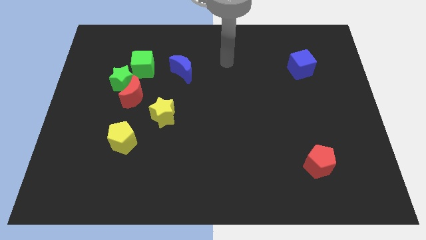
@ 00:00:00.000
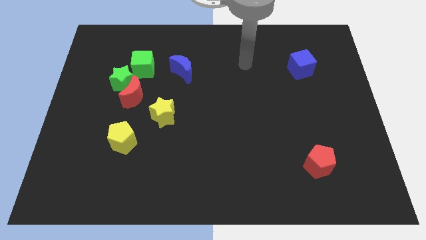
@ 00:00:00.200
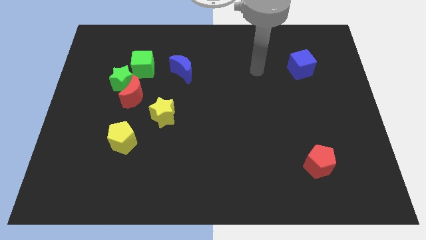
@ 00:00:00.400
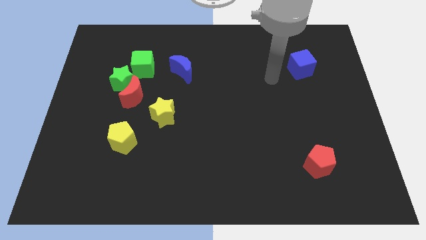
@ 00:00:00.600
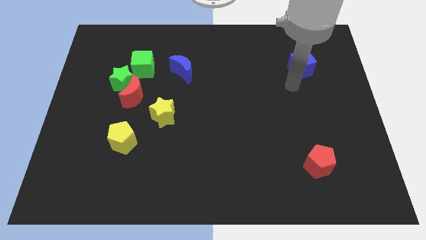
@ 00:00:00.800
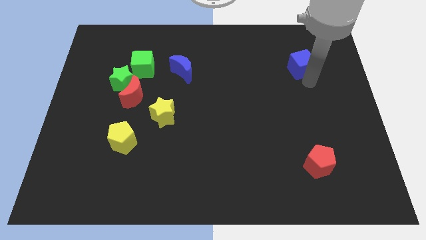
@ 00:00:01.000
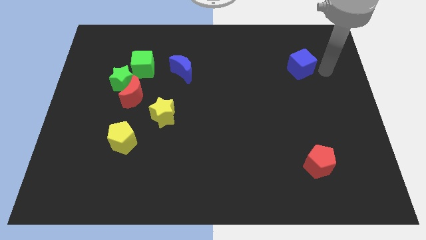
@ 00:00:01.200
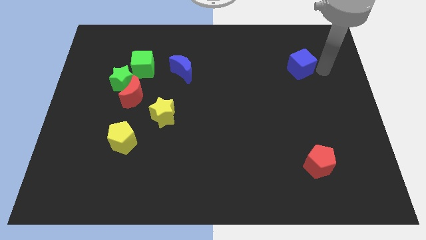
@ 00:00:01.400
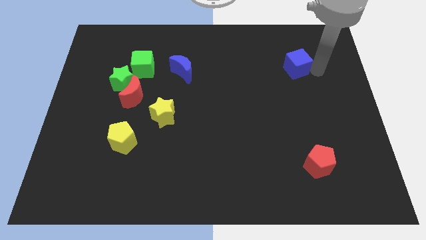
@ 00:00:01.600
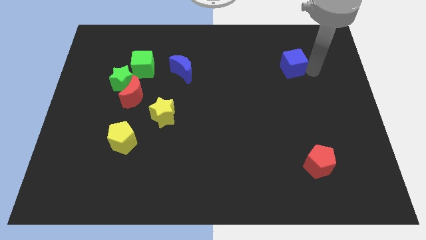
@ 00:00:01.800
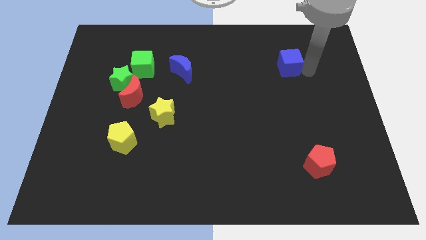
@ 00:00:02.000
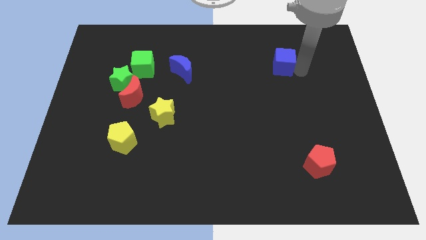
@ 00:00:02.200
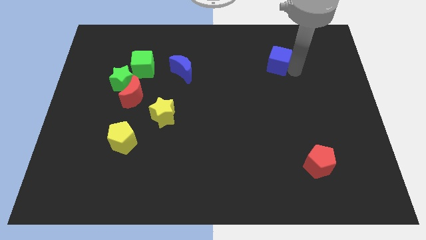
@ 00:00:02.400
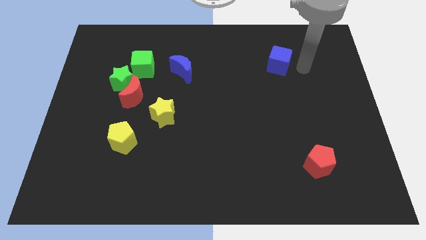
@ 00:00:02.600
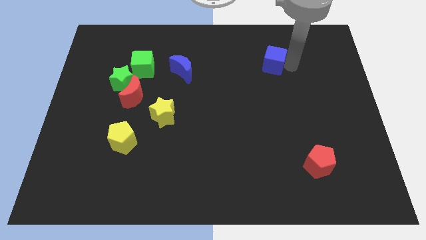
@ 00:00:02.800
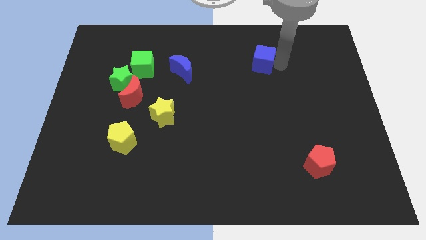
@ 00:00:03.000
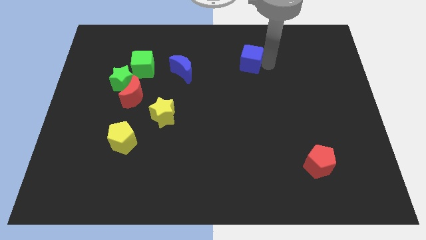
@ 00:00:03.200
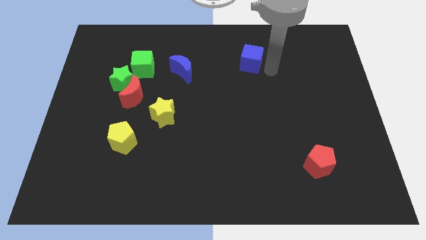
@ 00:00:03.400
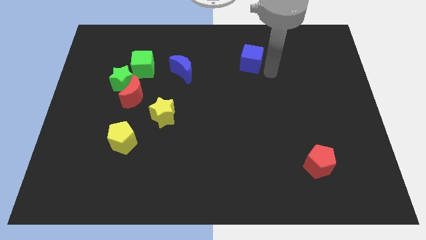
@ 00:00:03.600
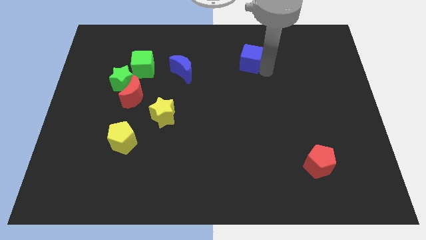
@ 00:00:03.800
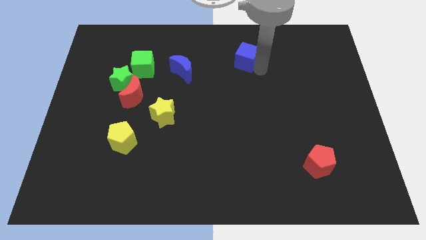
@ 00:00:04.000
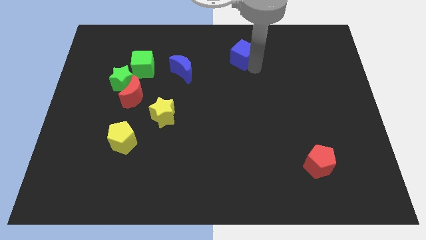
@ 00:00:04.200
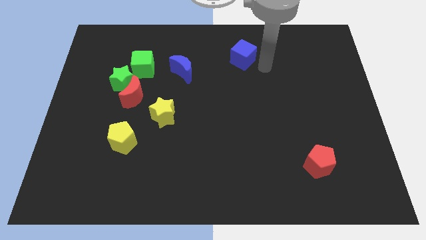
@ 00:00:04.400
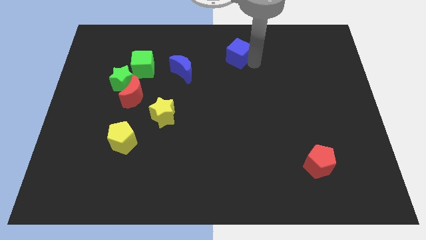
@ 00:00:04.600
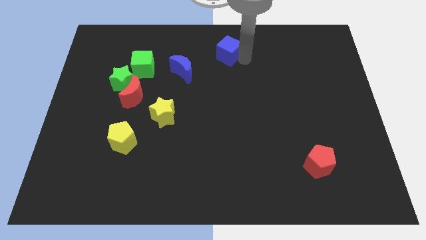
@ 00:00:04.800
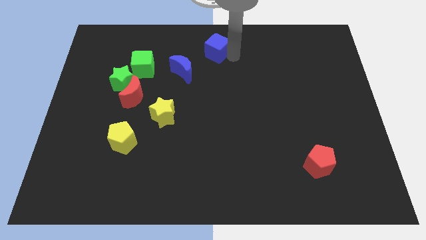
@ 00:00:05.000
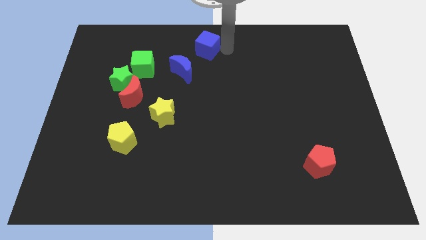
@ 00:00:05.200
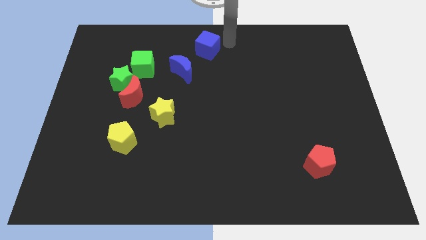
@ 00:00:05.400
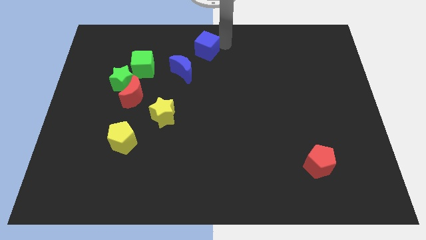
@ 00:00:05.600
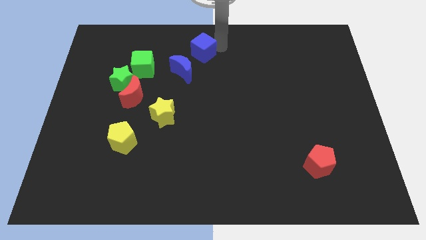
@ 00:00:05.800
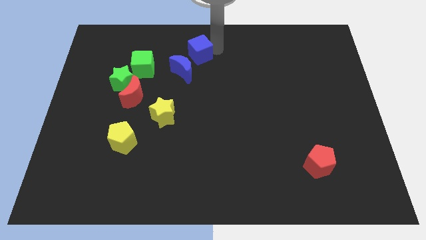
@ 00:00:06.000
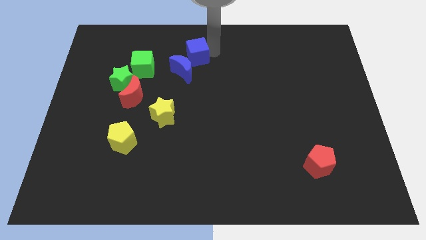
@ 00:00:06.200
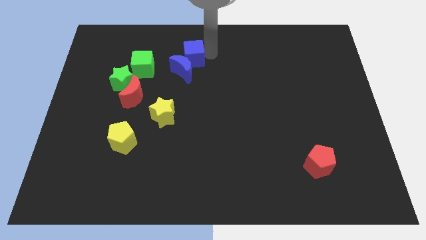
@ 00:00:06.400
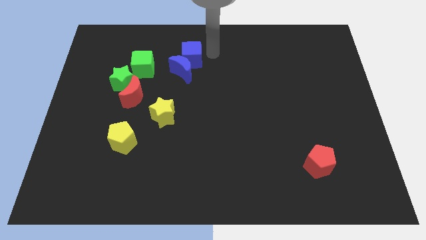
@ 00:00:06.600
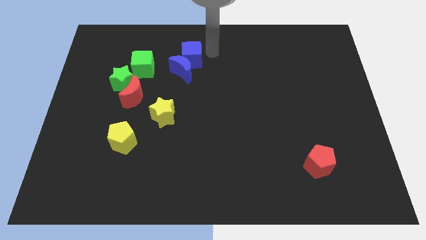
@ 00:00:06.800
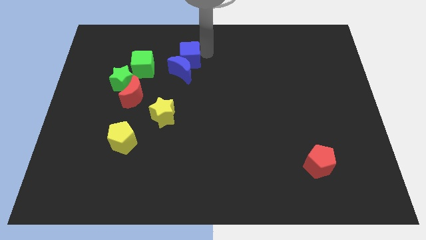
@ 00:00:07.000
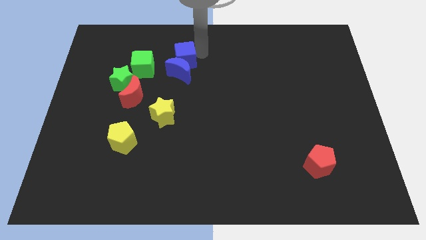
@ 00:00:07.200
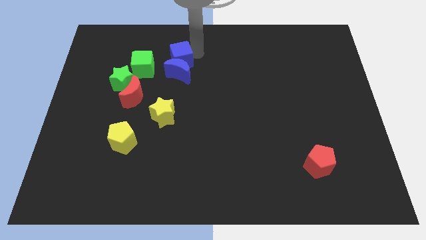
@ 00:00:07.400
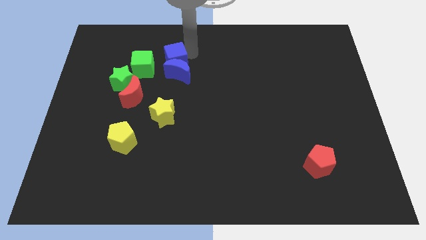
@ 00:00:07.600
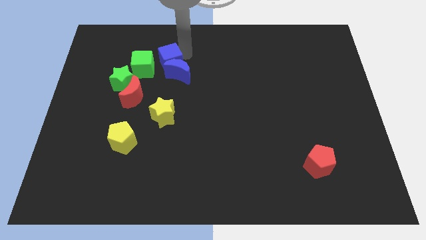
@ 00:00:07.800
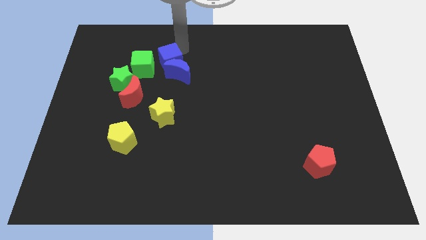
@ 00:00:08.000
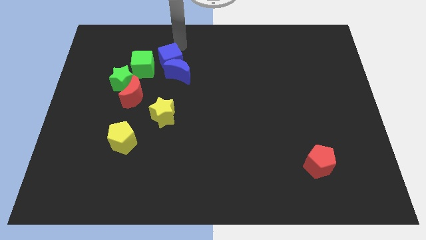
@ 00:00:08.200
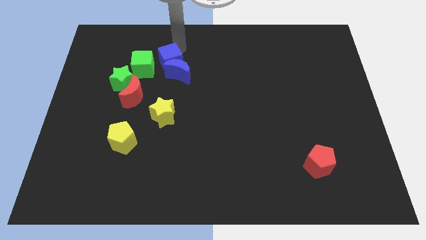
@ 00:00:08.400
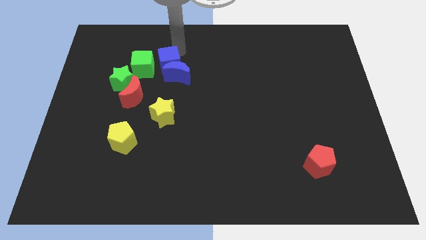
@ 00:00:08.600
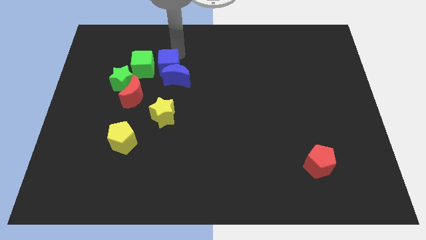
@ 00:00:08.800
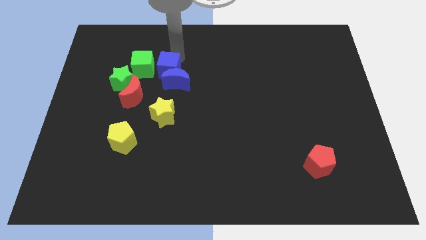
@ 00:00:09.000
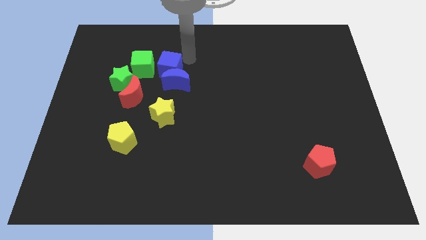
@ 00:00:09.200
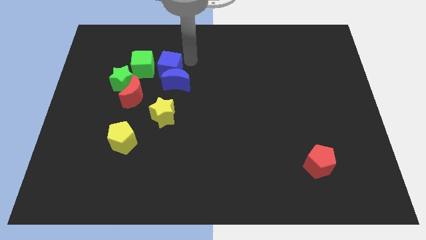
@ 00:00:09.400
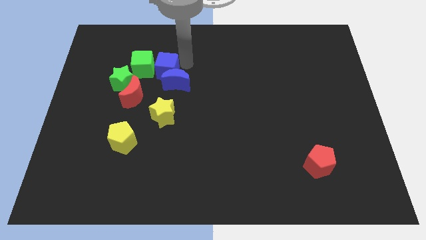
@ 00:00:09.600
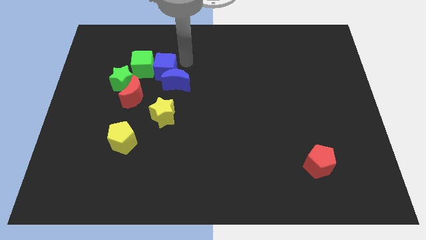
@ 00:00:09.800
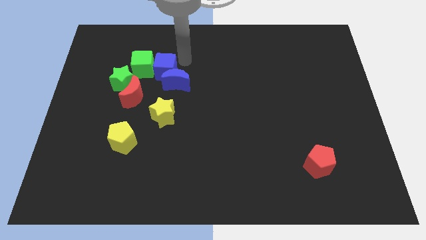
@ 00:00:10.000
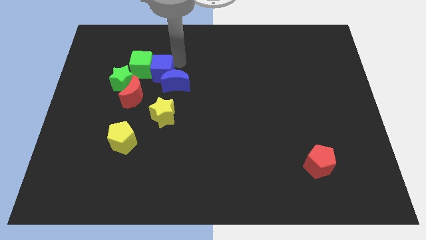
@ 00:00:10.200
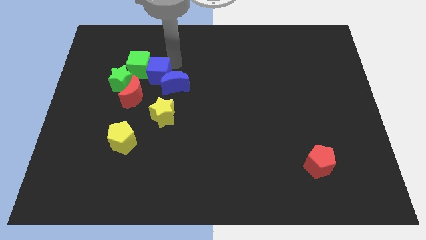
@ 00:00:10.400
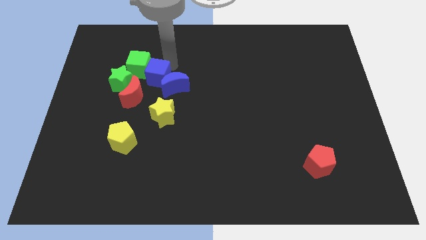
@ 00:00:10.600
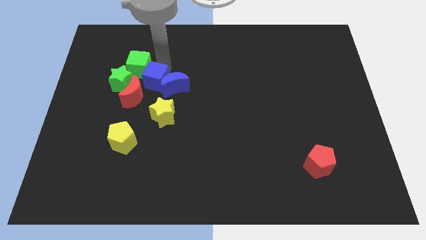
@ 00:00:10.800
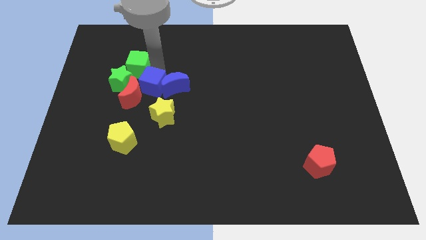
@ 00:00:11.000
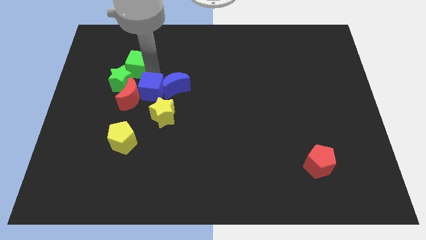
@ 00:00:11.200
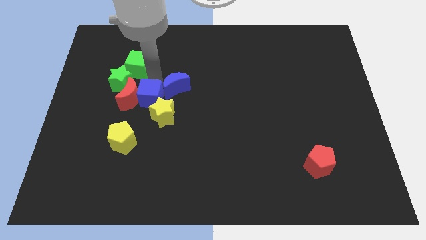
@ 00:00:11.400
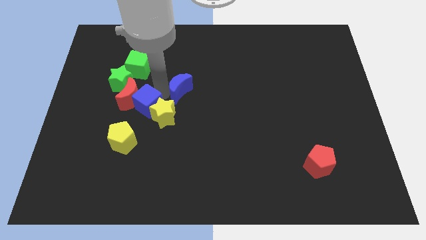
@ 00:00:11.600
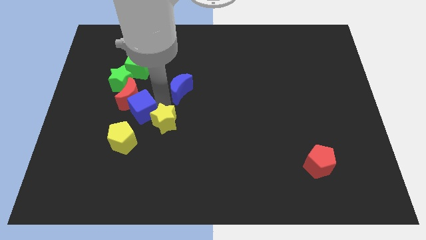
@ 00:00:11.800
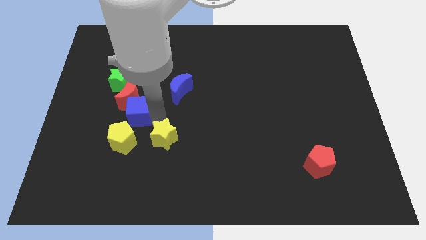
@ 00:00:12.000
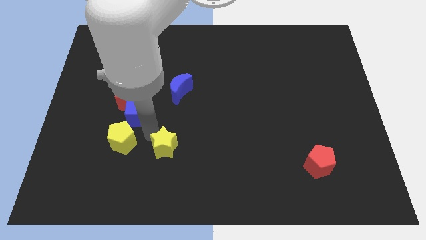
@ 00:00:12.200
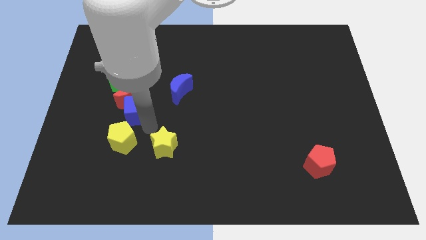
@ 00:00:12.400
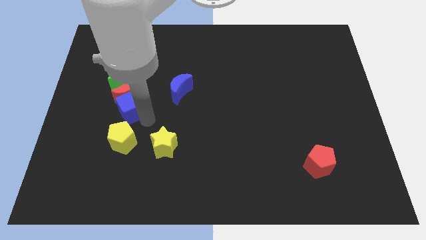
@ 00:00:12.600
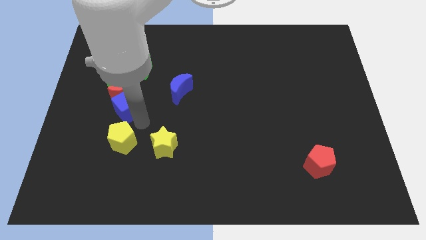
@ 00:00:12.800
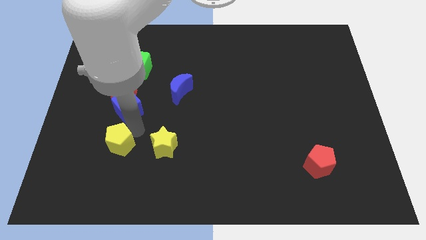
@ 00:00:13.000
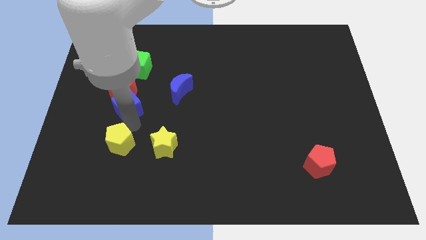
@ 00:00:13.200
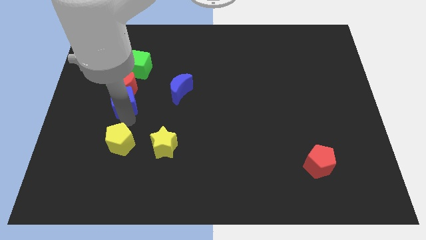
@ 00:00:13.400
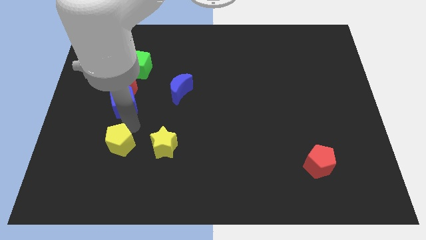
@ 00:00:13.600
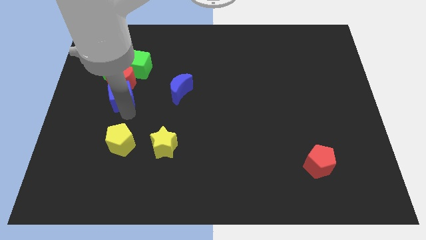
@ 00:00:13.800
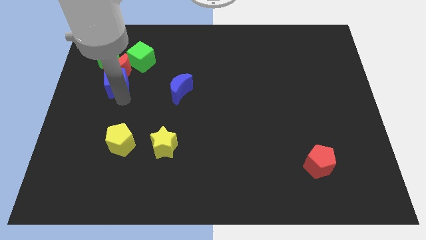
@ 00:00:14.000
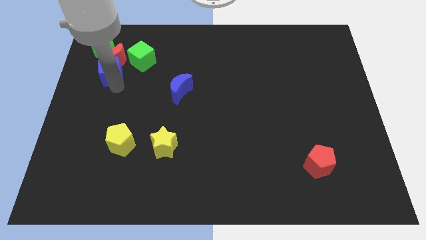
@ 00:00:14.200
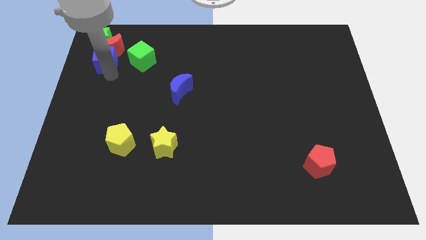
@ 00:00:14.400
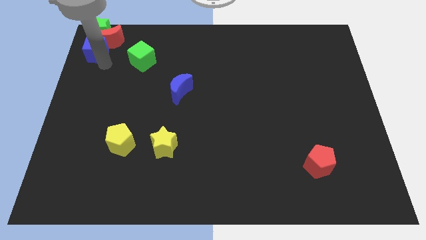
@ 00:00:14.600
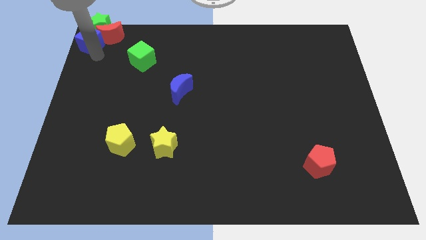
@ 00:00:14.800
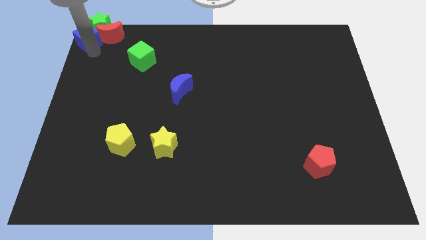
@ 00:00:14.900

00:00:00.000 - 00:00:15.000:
put the blue cube towards the green star
